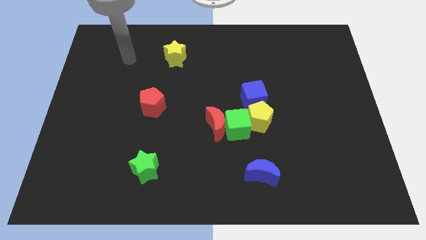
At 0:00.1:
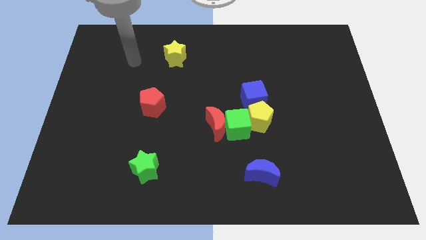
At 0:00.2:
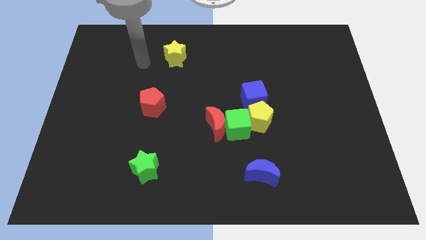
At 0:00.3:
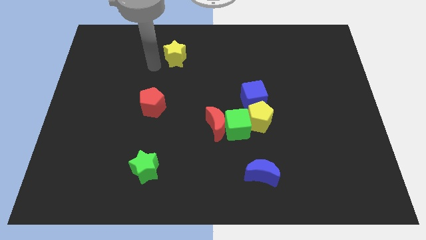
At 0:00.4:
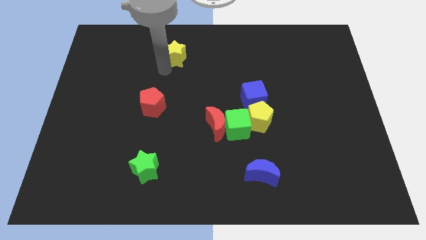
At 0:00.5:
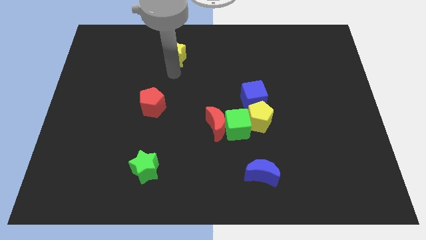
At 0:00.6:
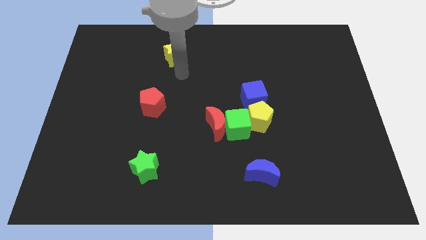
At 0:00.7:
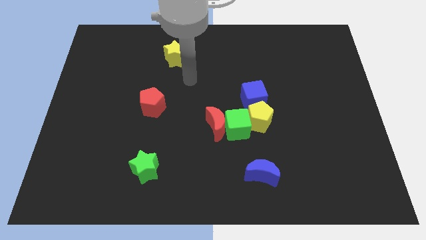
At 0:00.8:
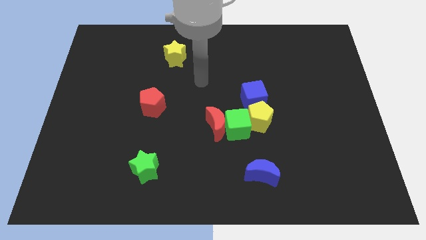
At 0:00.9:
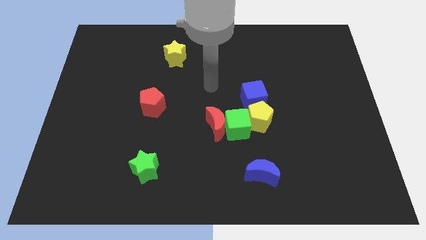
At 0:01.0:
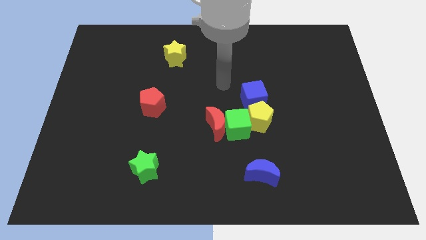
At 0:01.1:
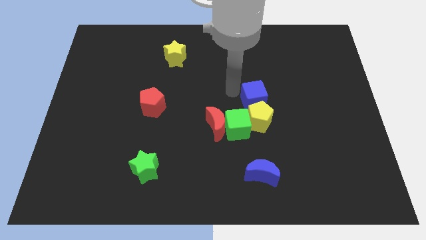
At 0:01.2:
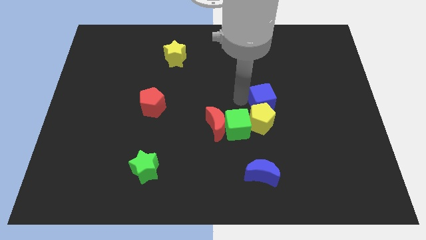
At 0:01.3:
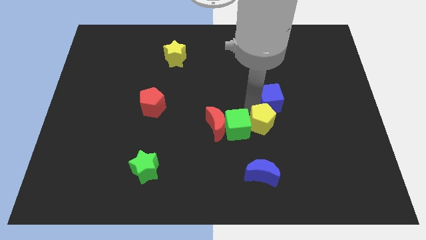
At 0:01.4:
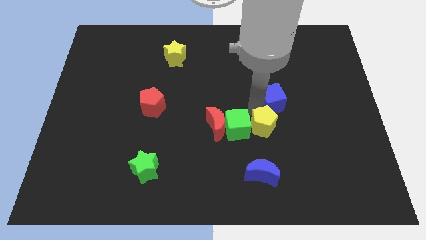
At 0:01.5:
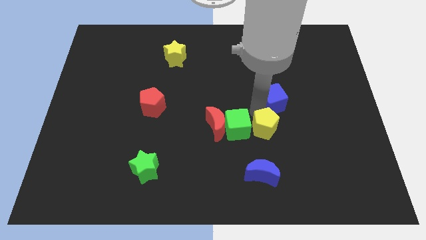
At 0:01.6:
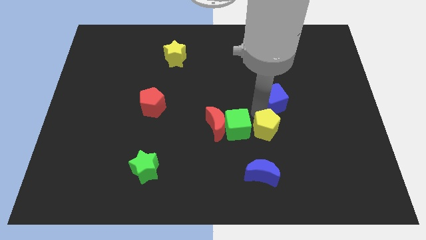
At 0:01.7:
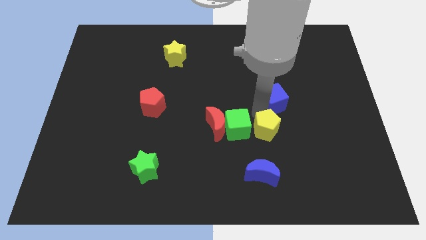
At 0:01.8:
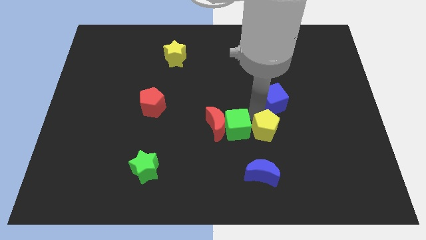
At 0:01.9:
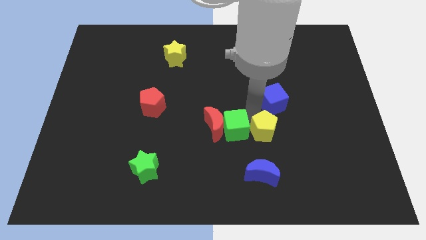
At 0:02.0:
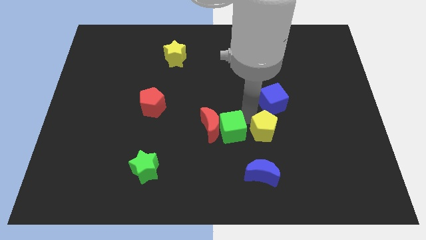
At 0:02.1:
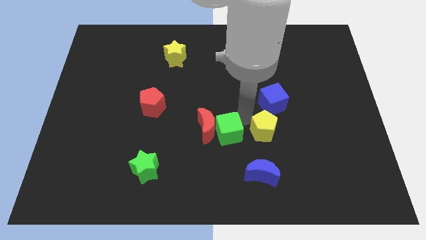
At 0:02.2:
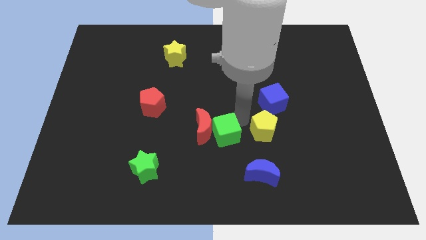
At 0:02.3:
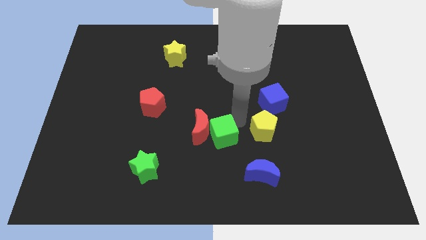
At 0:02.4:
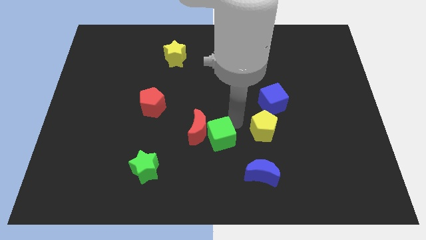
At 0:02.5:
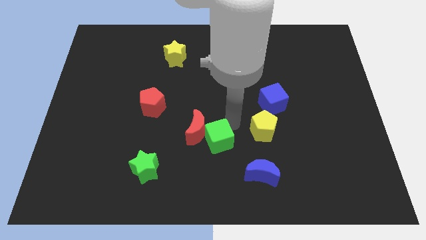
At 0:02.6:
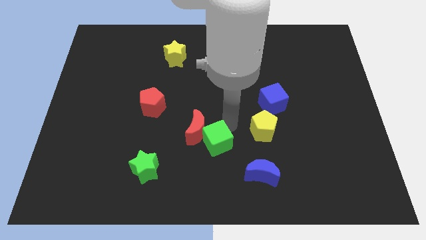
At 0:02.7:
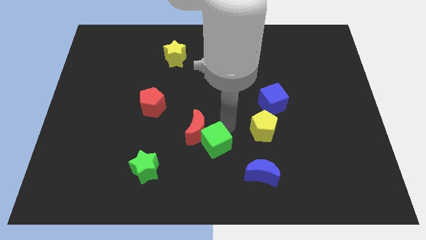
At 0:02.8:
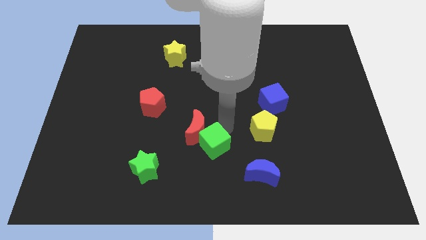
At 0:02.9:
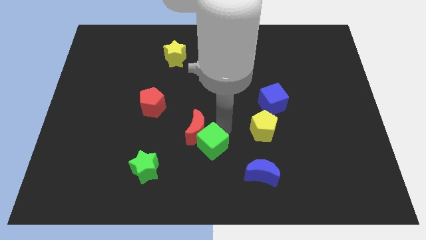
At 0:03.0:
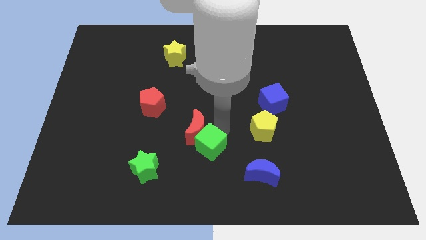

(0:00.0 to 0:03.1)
pull the green cube apart from the group

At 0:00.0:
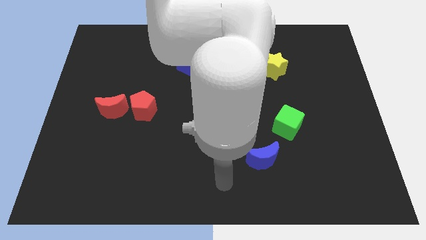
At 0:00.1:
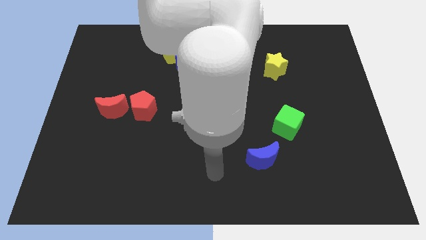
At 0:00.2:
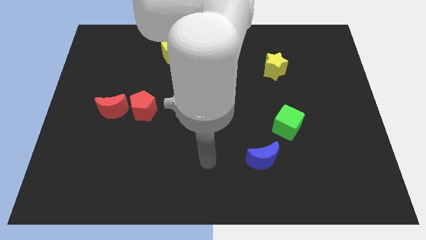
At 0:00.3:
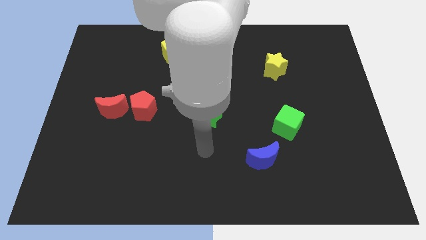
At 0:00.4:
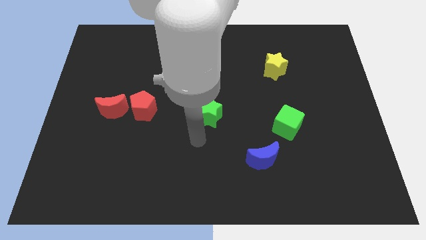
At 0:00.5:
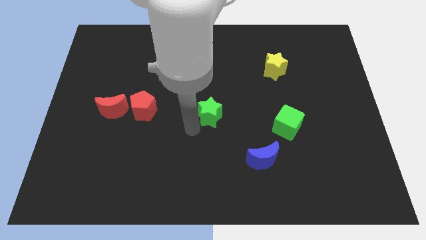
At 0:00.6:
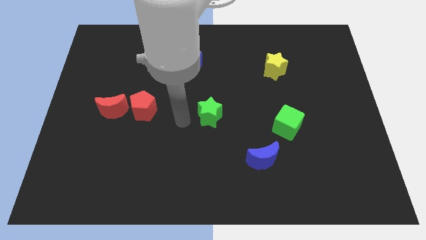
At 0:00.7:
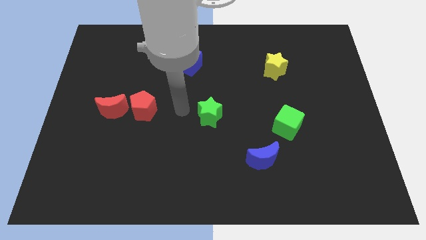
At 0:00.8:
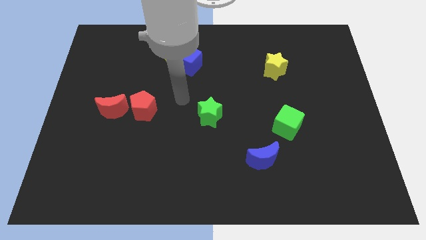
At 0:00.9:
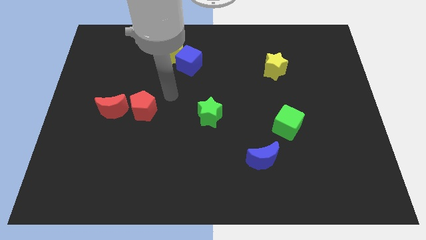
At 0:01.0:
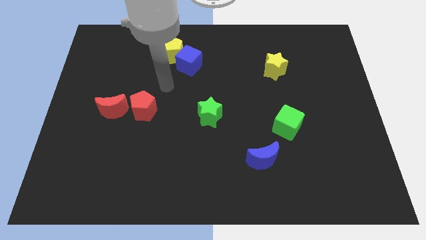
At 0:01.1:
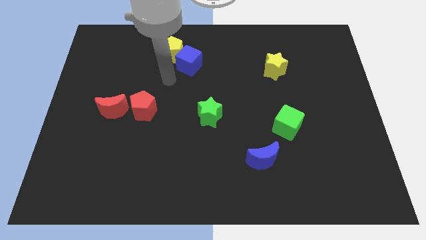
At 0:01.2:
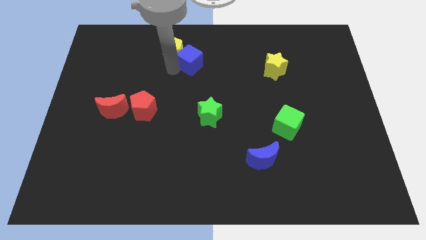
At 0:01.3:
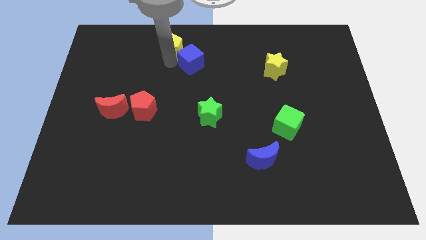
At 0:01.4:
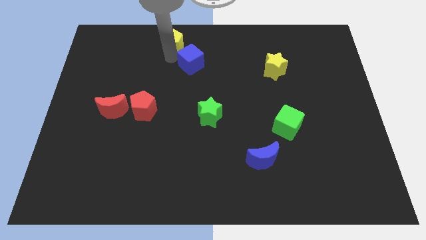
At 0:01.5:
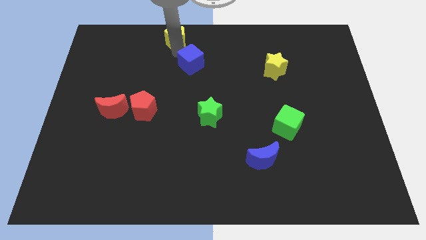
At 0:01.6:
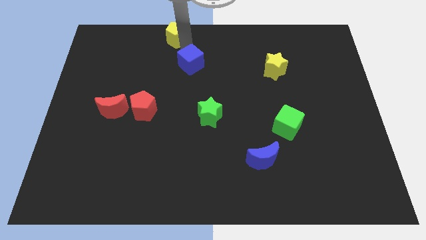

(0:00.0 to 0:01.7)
pull the blue cube apart from the yellow pentagon

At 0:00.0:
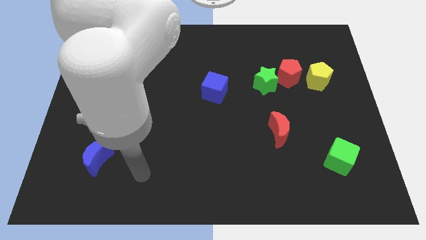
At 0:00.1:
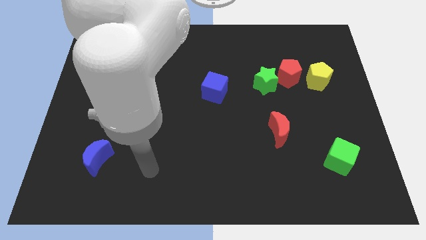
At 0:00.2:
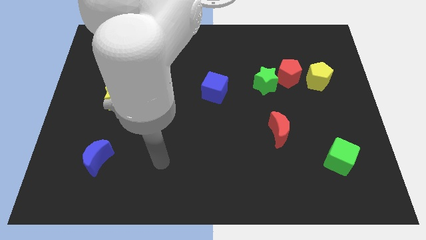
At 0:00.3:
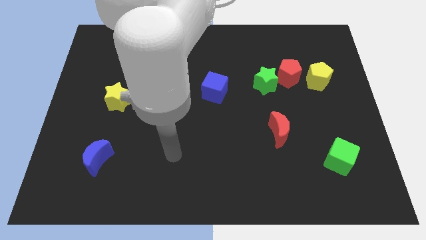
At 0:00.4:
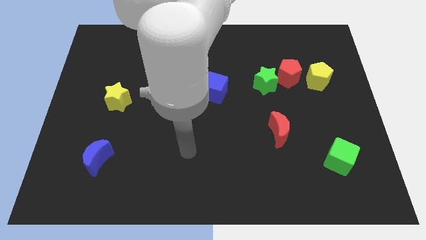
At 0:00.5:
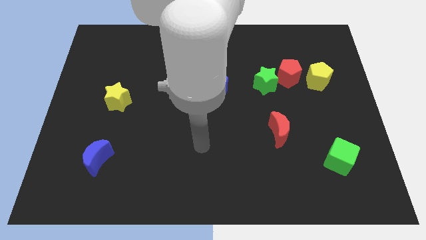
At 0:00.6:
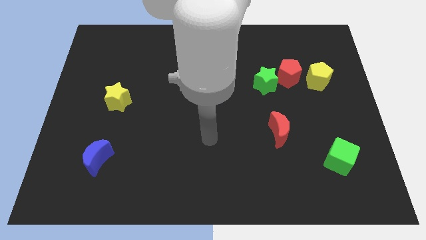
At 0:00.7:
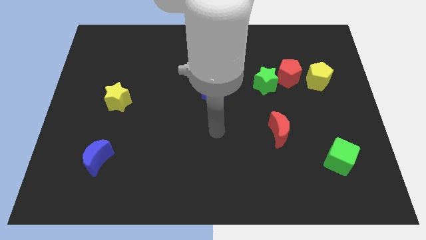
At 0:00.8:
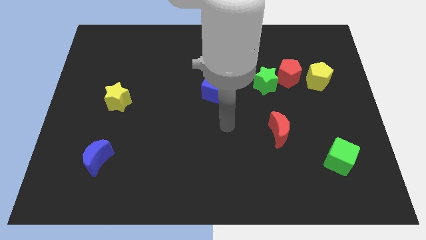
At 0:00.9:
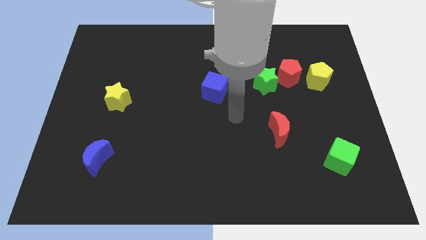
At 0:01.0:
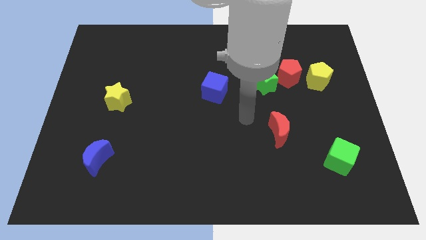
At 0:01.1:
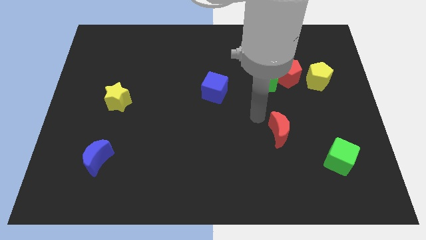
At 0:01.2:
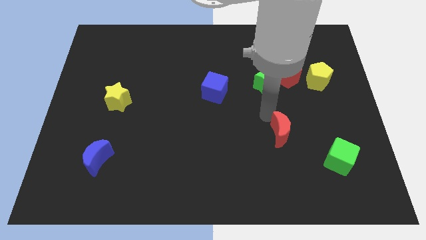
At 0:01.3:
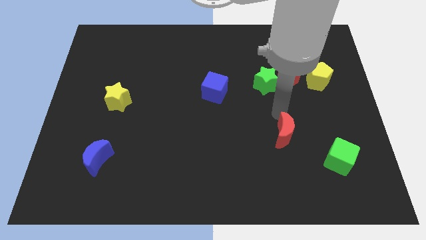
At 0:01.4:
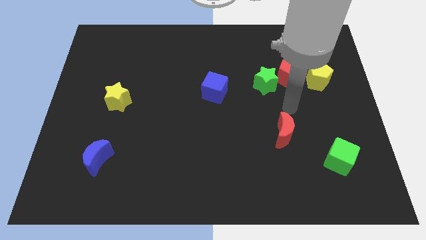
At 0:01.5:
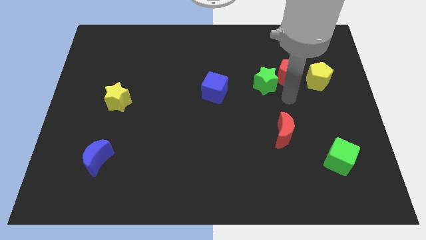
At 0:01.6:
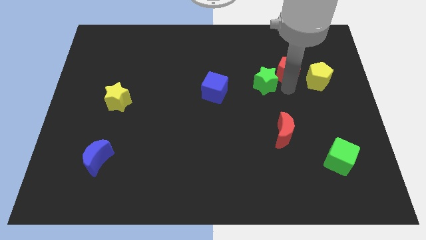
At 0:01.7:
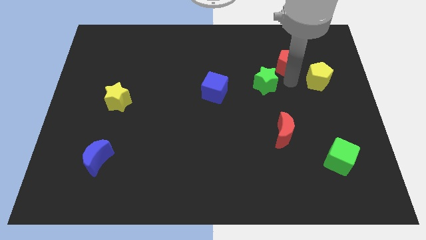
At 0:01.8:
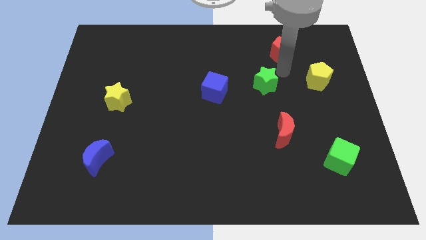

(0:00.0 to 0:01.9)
move the green star away from the red pentagon

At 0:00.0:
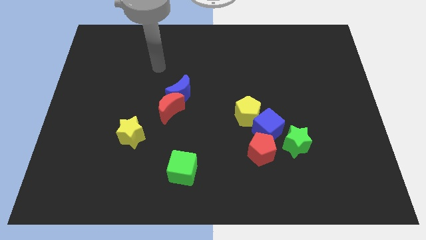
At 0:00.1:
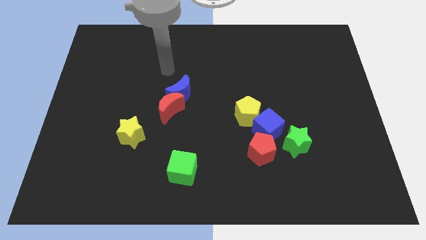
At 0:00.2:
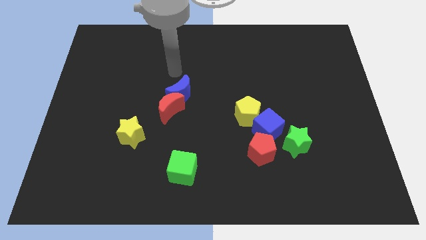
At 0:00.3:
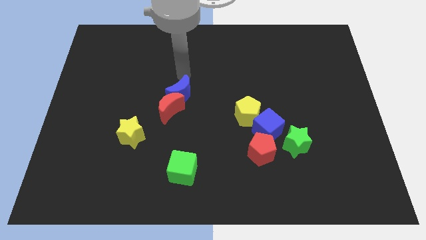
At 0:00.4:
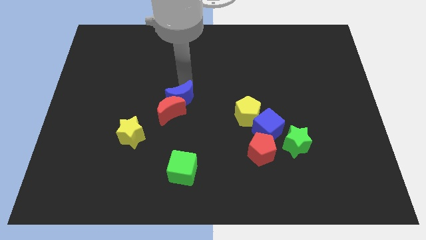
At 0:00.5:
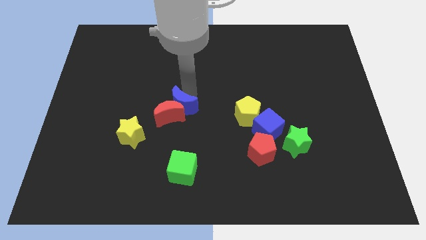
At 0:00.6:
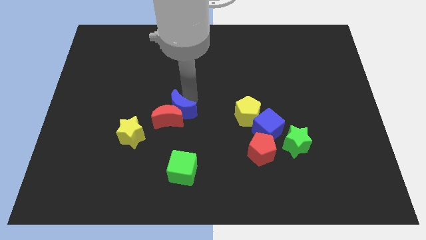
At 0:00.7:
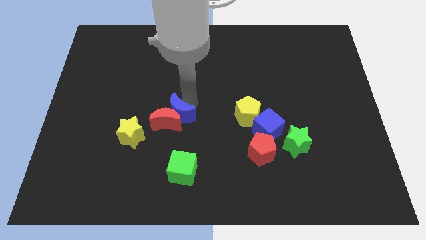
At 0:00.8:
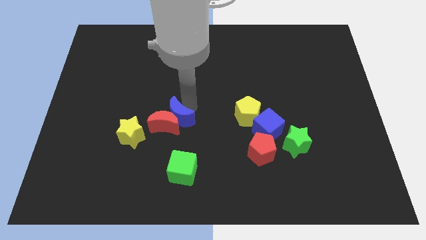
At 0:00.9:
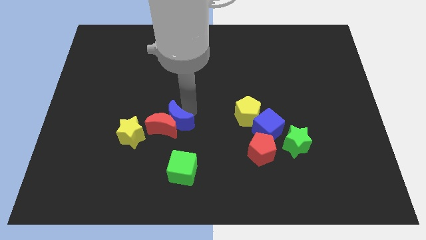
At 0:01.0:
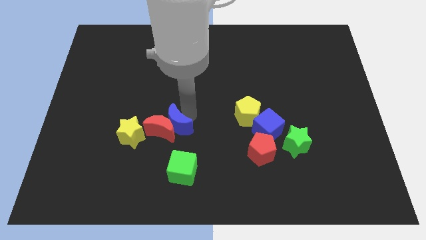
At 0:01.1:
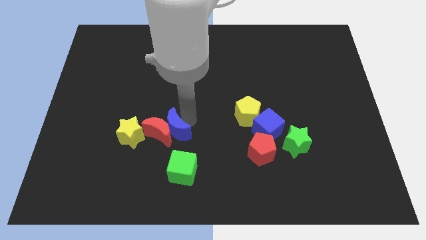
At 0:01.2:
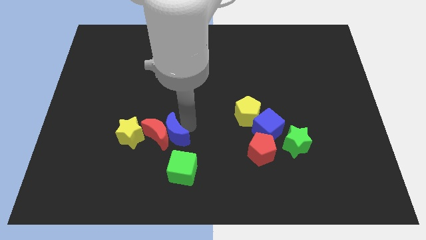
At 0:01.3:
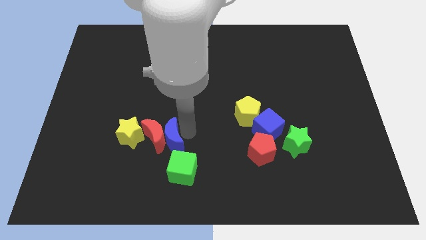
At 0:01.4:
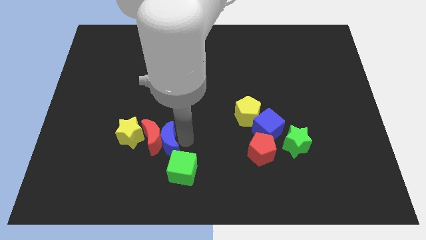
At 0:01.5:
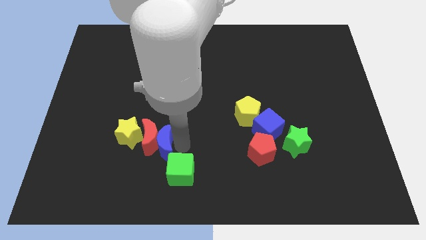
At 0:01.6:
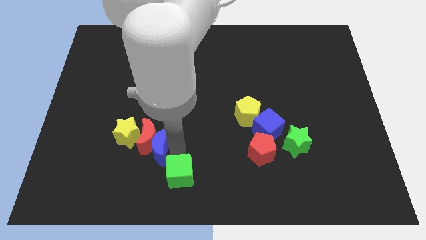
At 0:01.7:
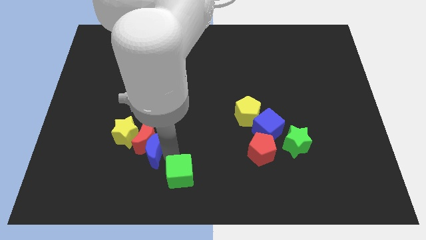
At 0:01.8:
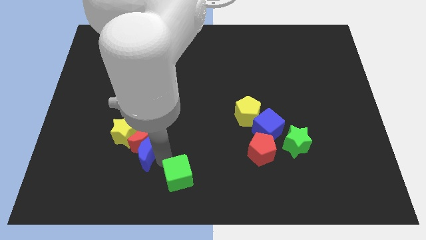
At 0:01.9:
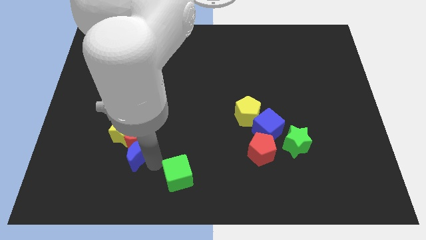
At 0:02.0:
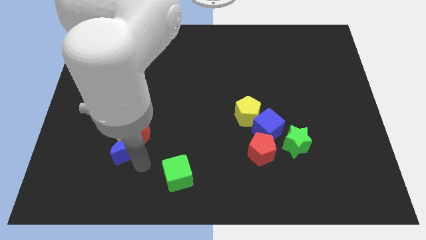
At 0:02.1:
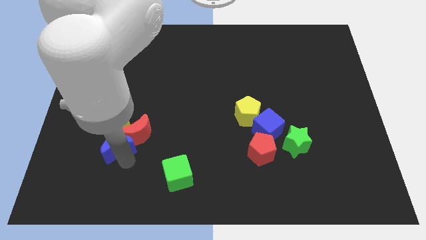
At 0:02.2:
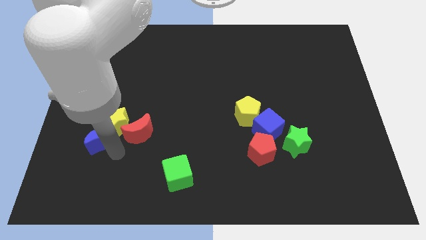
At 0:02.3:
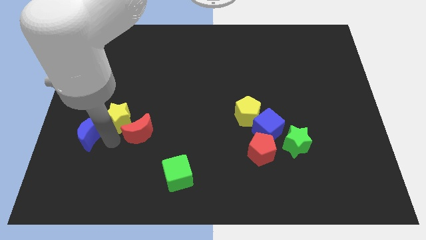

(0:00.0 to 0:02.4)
separate the red moon from the blue moon

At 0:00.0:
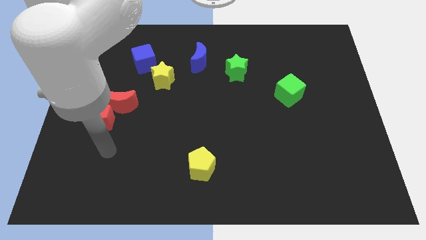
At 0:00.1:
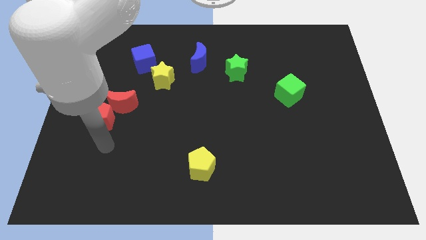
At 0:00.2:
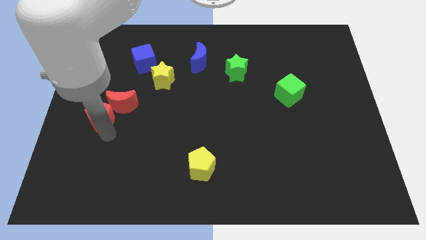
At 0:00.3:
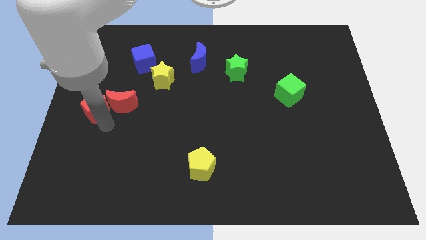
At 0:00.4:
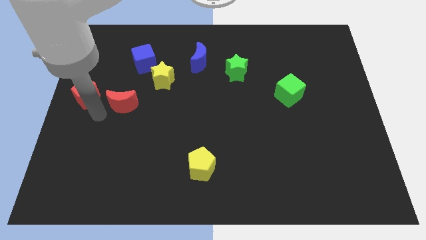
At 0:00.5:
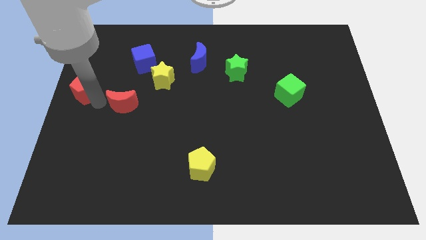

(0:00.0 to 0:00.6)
move the red moon away from the red pentagon
